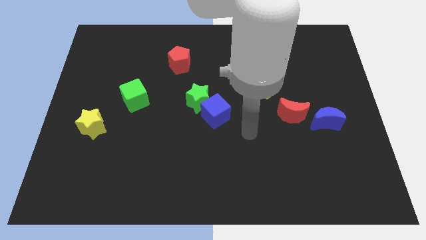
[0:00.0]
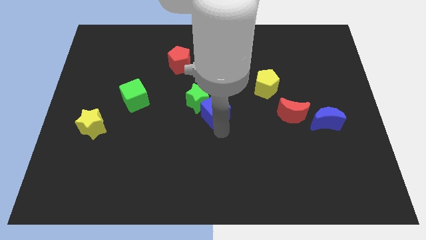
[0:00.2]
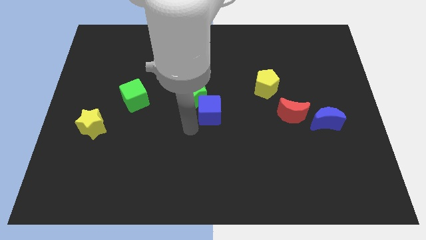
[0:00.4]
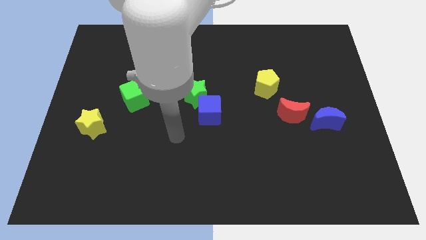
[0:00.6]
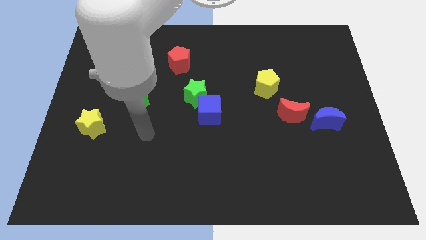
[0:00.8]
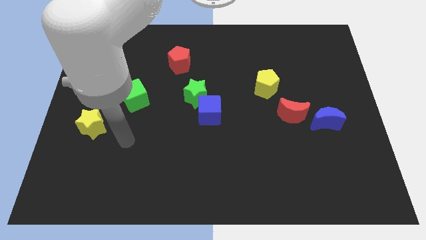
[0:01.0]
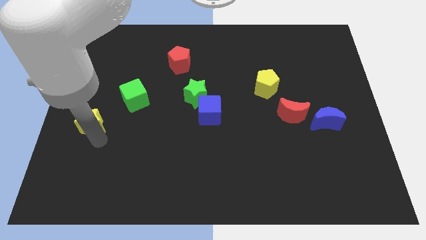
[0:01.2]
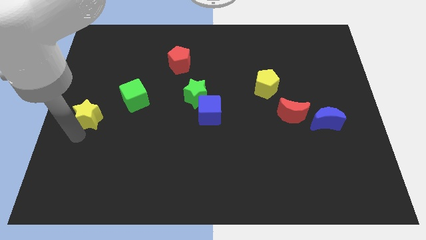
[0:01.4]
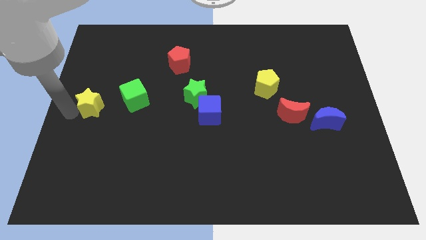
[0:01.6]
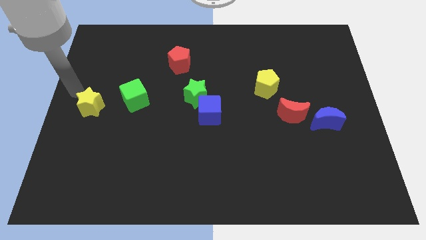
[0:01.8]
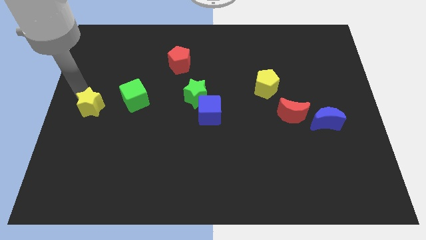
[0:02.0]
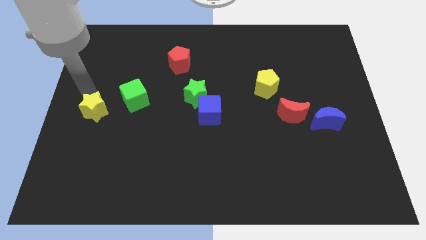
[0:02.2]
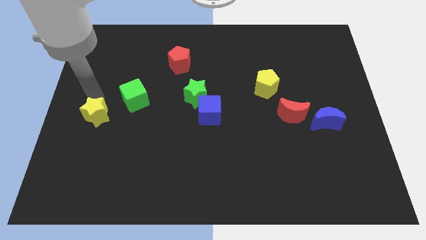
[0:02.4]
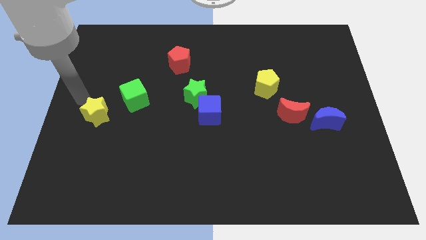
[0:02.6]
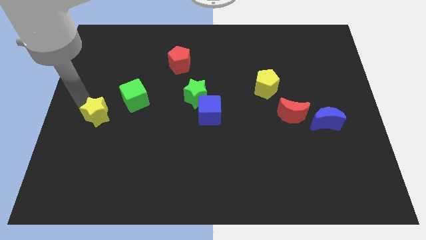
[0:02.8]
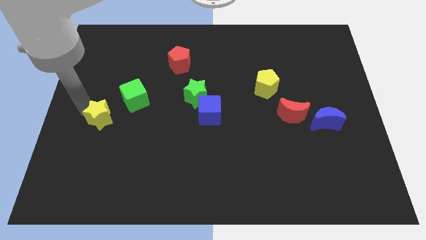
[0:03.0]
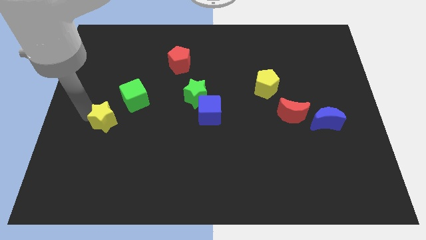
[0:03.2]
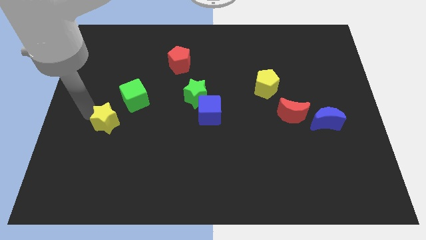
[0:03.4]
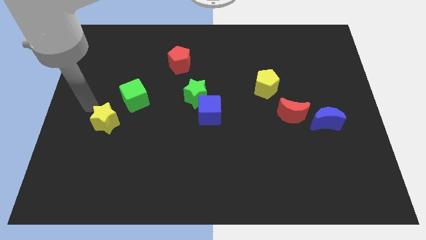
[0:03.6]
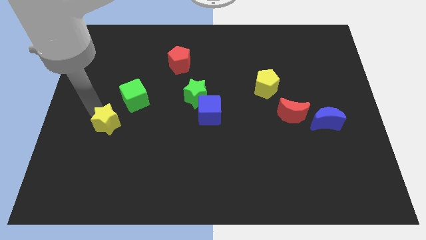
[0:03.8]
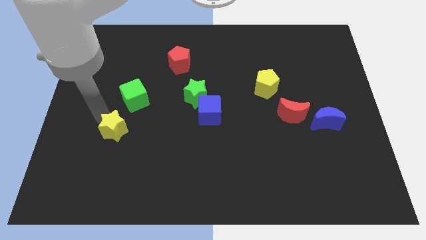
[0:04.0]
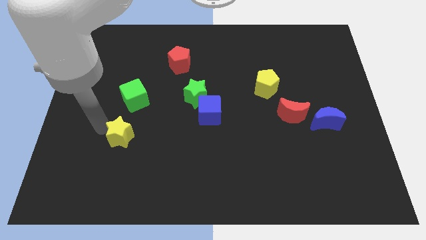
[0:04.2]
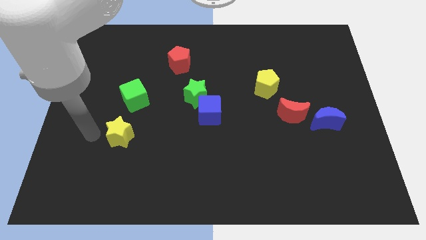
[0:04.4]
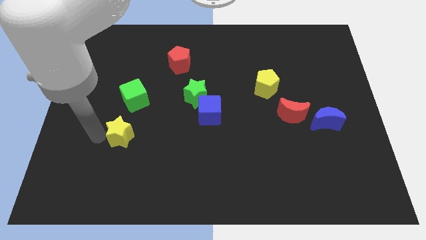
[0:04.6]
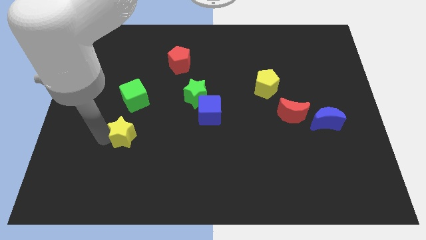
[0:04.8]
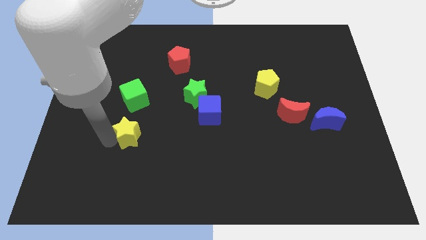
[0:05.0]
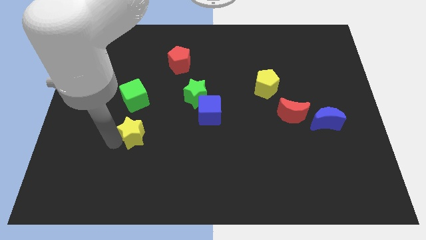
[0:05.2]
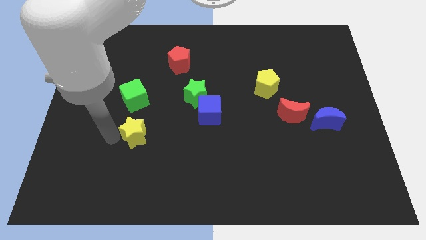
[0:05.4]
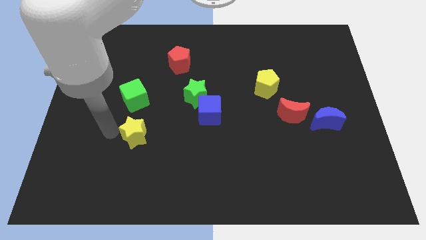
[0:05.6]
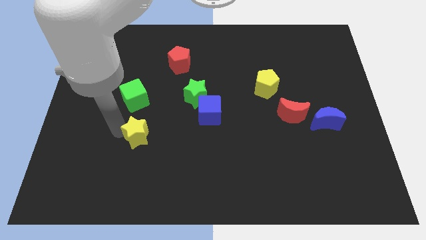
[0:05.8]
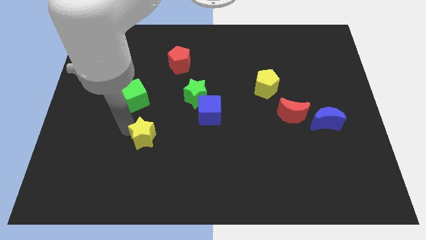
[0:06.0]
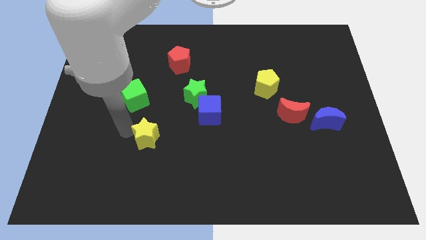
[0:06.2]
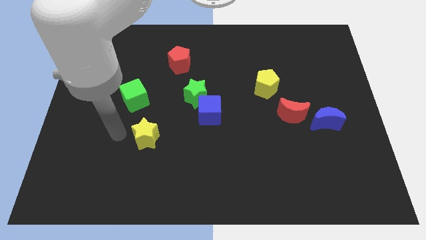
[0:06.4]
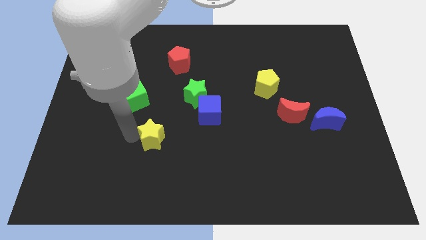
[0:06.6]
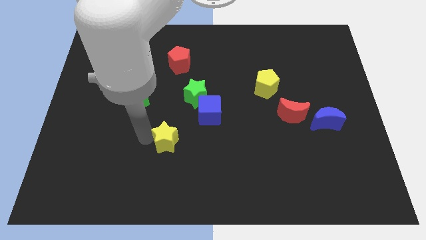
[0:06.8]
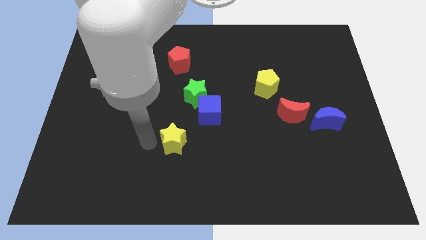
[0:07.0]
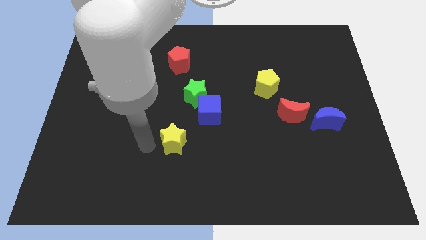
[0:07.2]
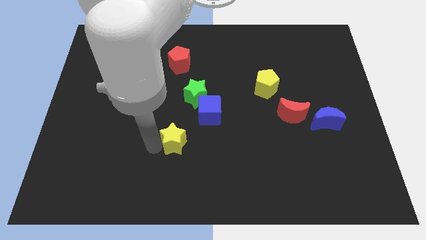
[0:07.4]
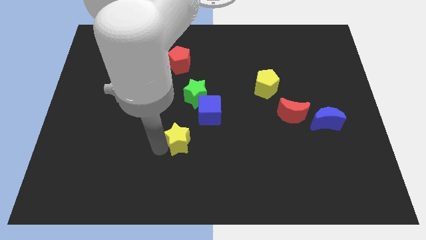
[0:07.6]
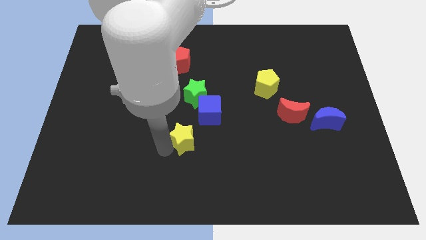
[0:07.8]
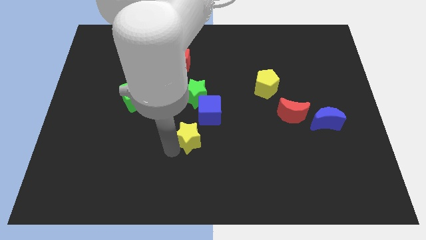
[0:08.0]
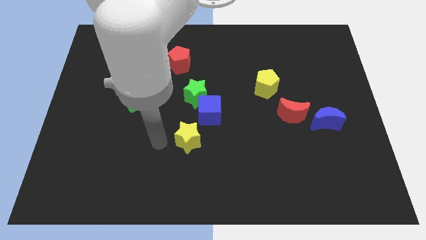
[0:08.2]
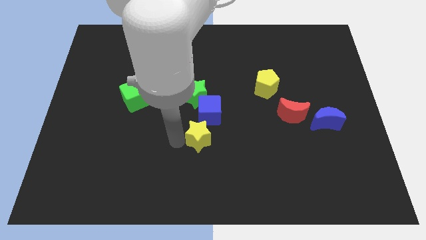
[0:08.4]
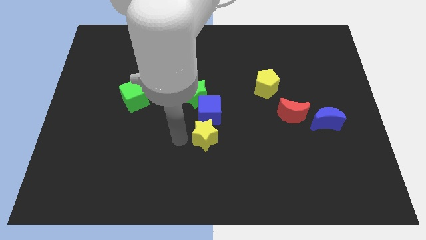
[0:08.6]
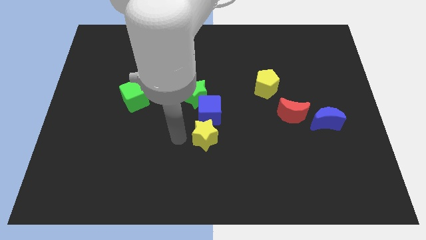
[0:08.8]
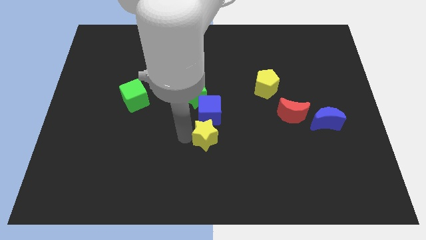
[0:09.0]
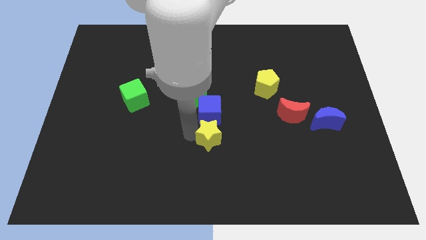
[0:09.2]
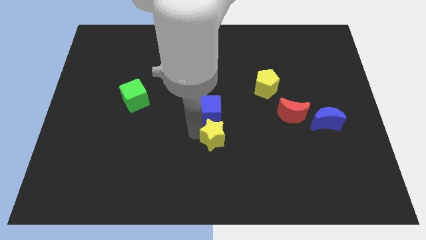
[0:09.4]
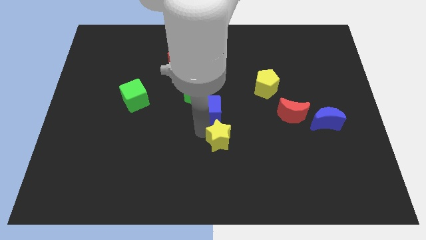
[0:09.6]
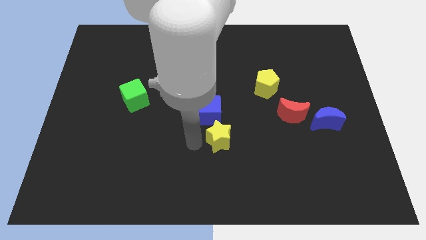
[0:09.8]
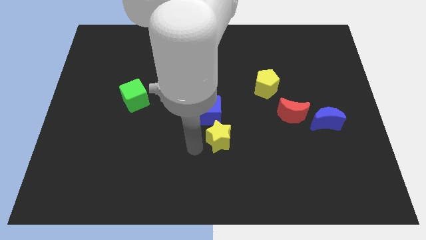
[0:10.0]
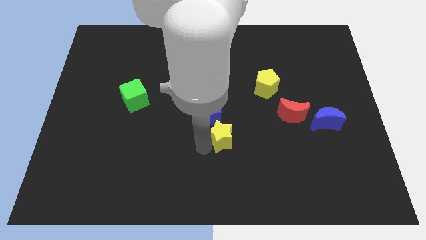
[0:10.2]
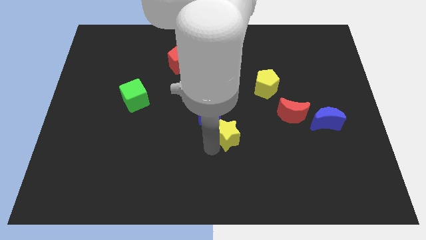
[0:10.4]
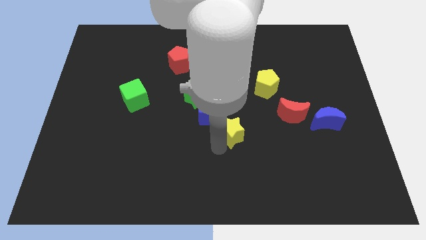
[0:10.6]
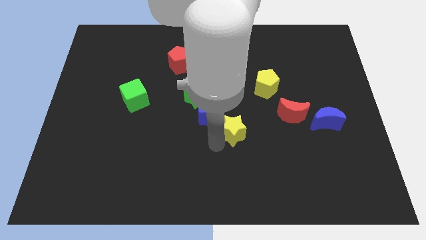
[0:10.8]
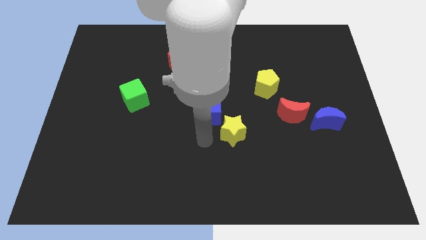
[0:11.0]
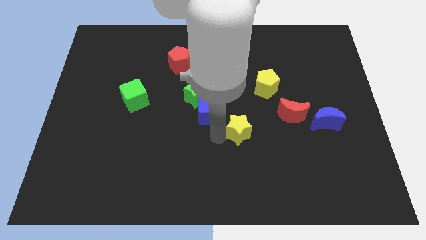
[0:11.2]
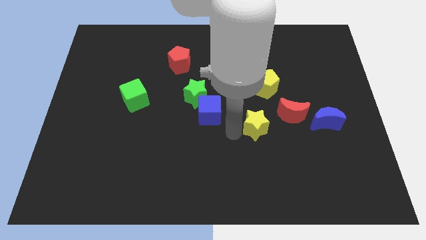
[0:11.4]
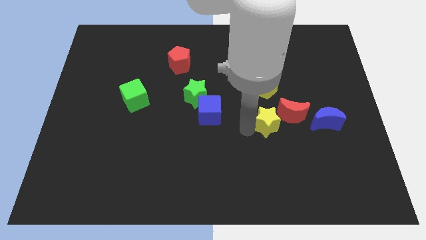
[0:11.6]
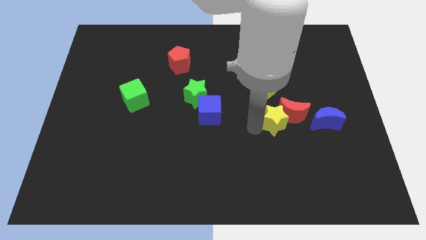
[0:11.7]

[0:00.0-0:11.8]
put the yellow star towards the red moon

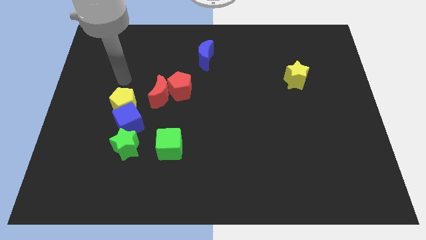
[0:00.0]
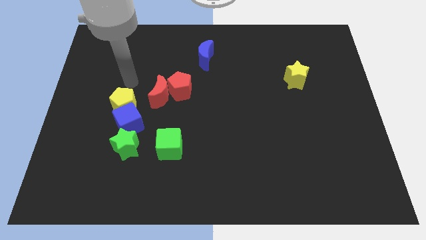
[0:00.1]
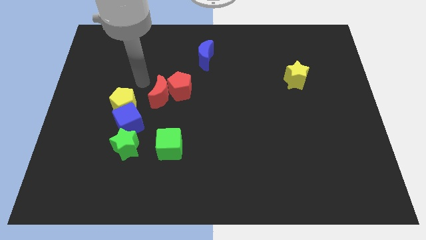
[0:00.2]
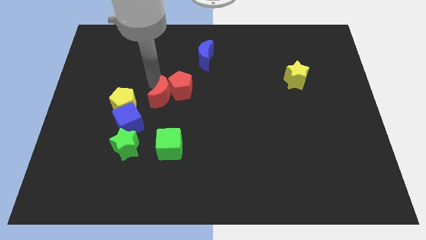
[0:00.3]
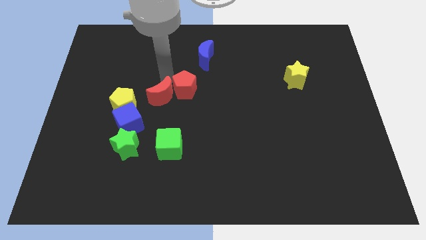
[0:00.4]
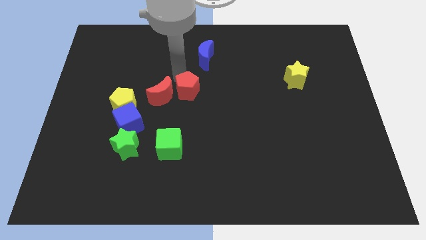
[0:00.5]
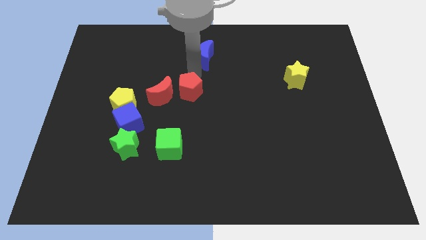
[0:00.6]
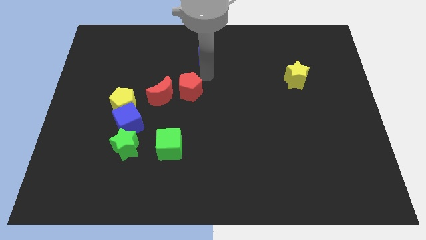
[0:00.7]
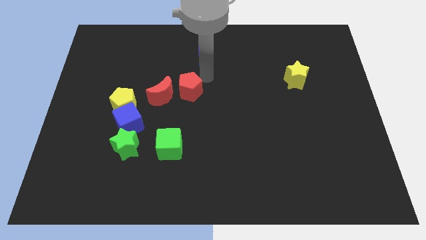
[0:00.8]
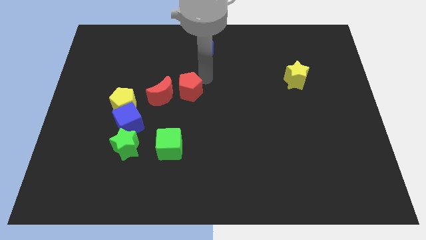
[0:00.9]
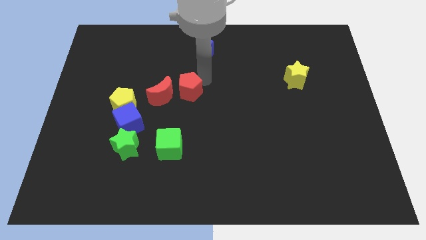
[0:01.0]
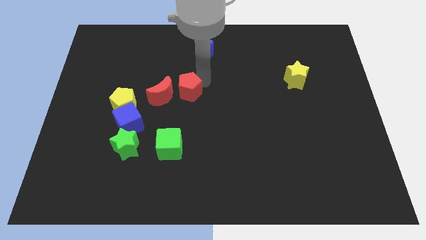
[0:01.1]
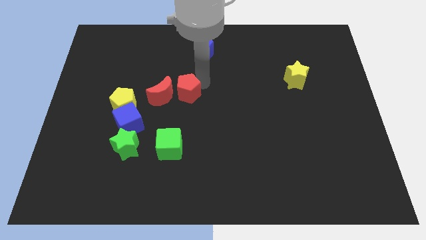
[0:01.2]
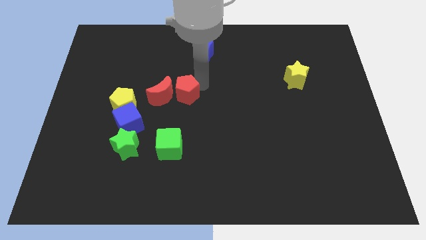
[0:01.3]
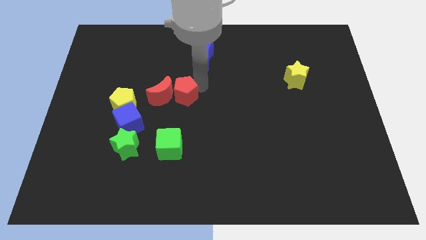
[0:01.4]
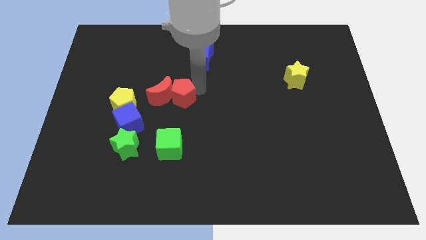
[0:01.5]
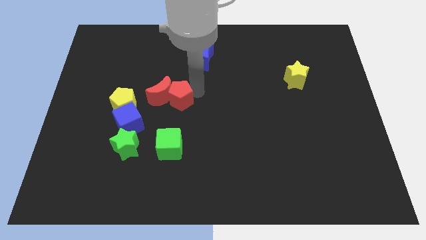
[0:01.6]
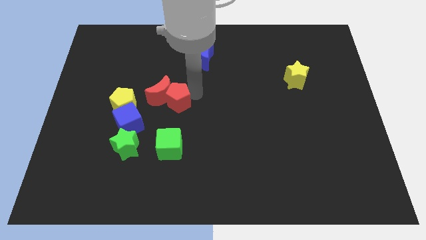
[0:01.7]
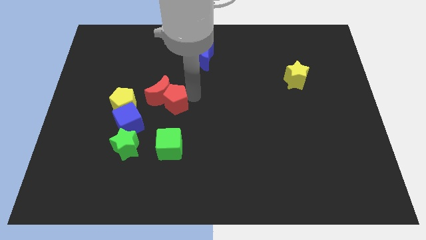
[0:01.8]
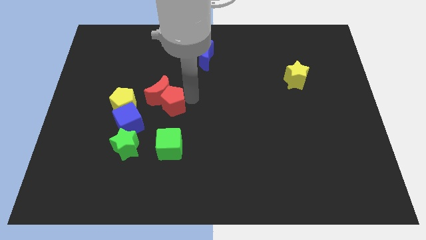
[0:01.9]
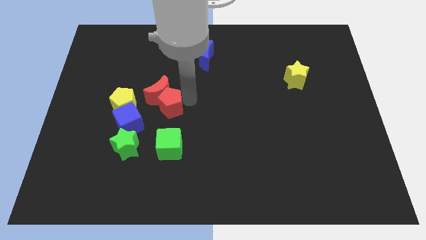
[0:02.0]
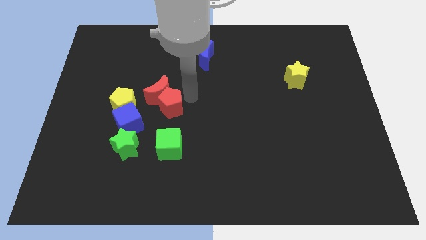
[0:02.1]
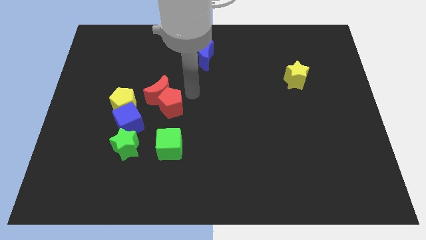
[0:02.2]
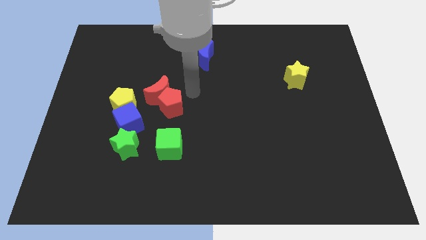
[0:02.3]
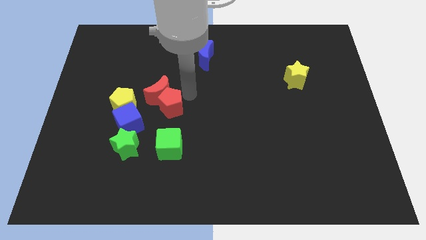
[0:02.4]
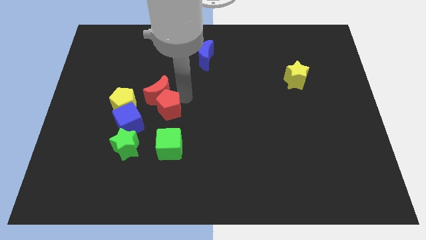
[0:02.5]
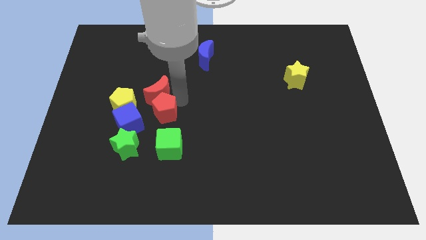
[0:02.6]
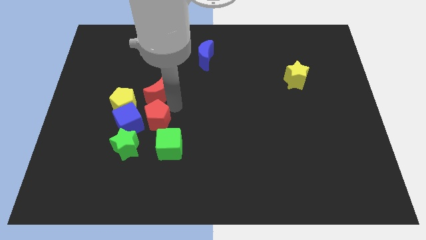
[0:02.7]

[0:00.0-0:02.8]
move the red pentagon next to the blue cube
